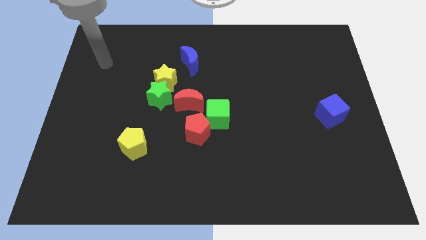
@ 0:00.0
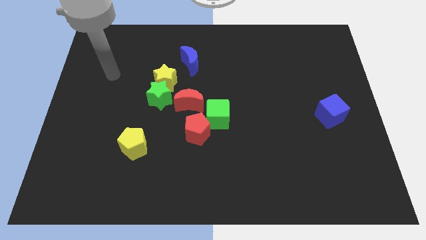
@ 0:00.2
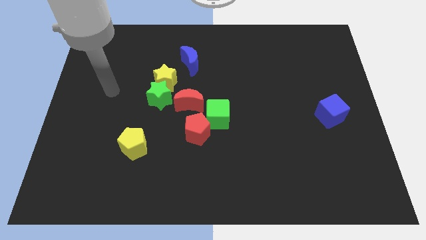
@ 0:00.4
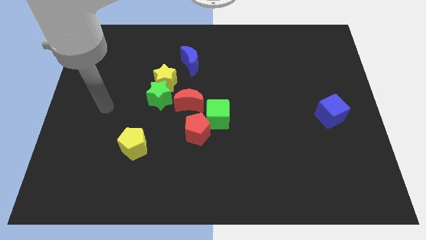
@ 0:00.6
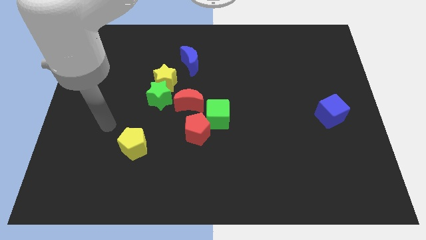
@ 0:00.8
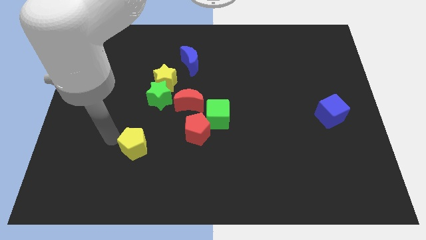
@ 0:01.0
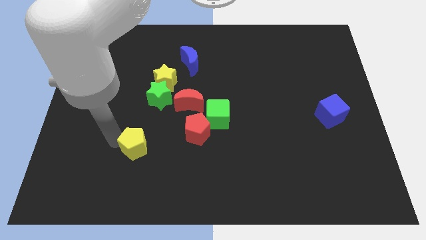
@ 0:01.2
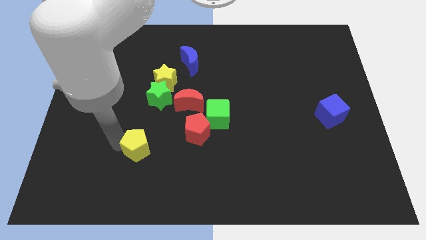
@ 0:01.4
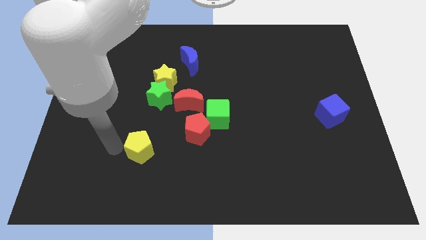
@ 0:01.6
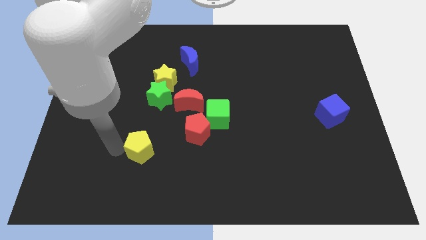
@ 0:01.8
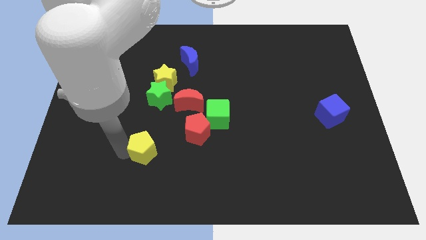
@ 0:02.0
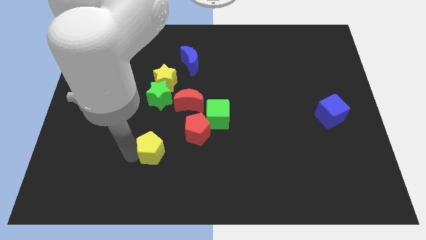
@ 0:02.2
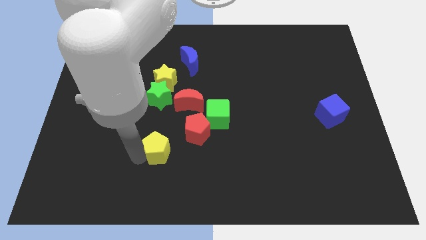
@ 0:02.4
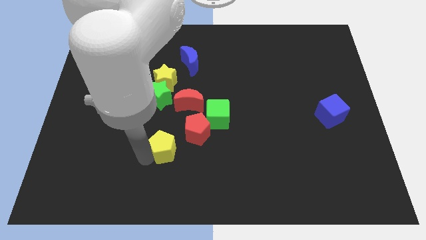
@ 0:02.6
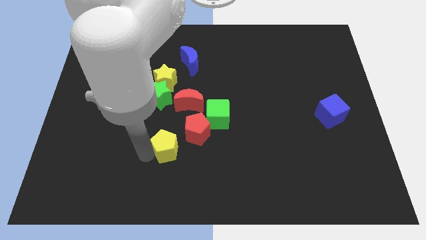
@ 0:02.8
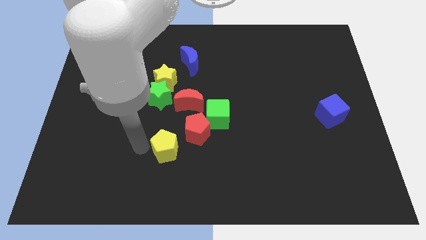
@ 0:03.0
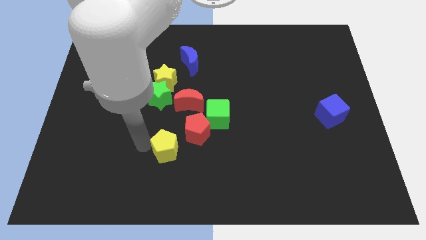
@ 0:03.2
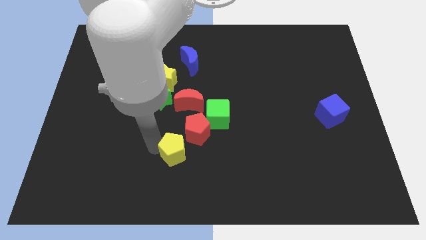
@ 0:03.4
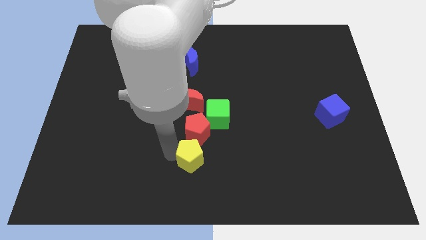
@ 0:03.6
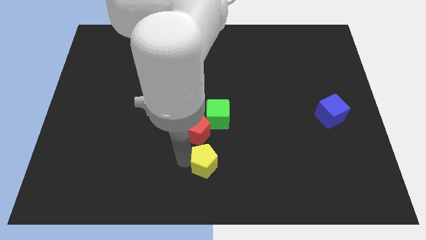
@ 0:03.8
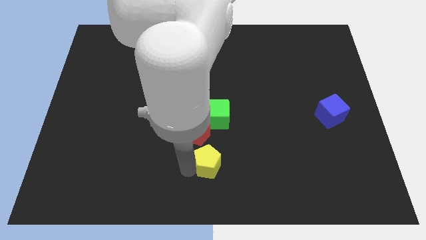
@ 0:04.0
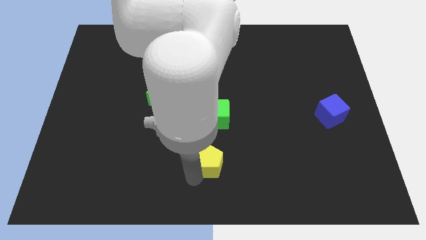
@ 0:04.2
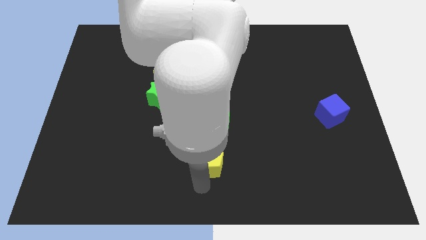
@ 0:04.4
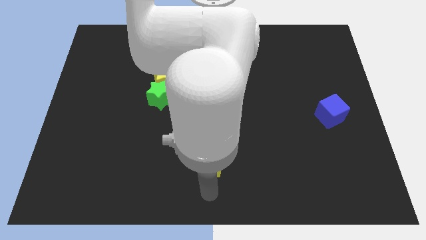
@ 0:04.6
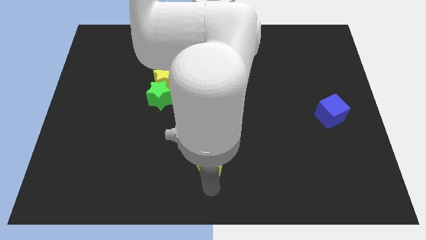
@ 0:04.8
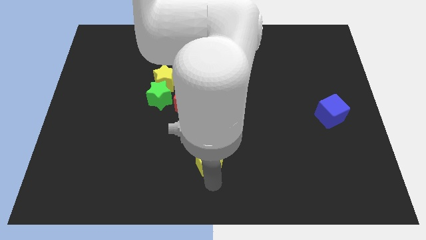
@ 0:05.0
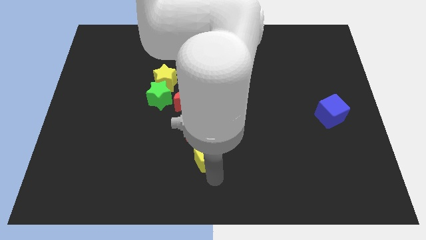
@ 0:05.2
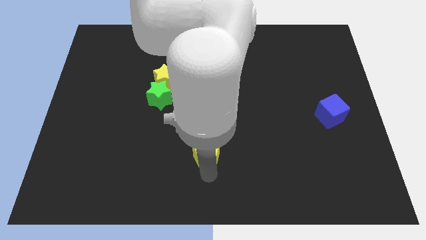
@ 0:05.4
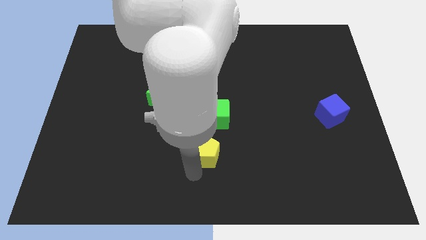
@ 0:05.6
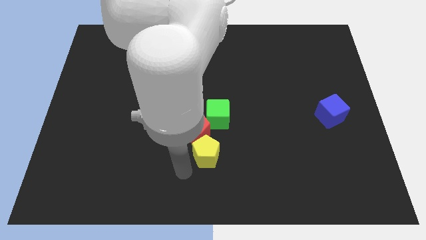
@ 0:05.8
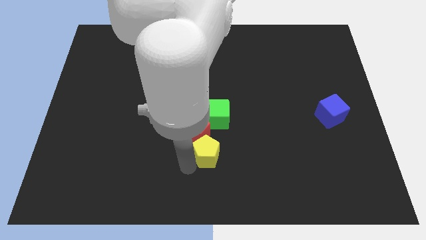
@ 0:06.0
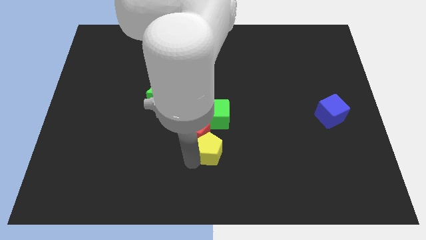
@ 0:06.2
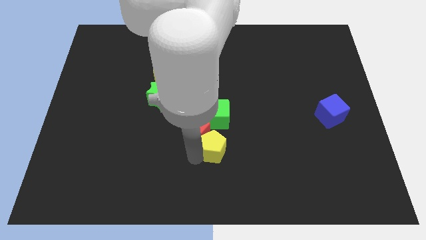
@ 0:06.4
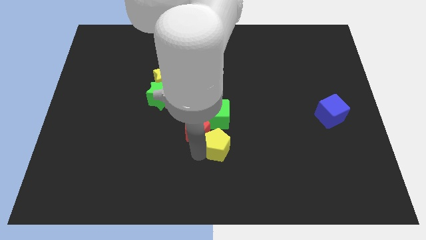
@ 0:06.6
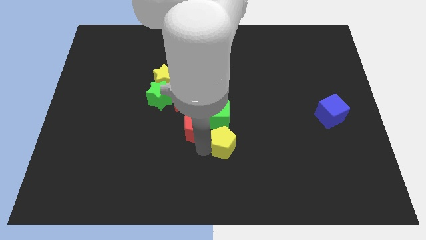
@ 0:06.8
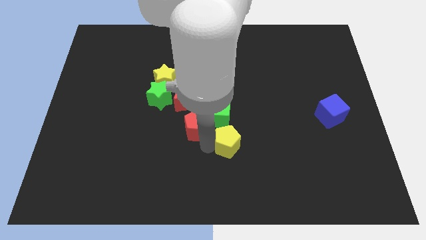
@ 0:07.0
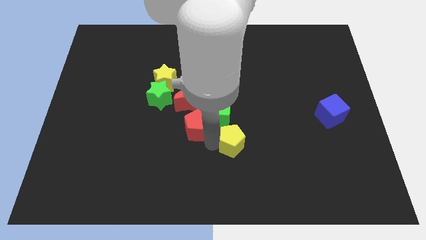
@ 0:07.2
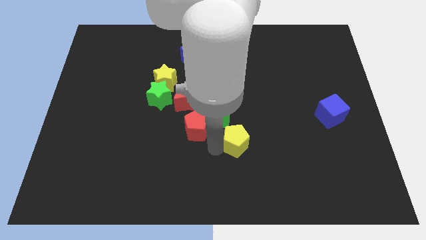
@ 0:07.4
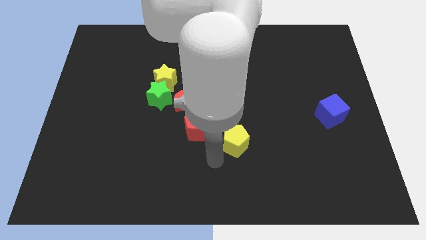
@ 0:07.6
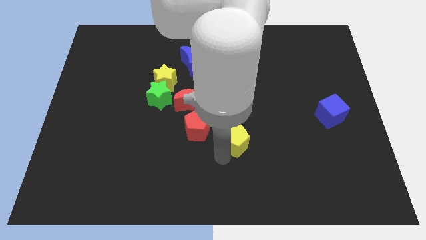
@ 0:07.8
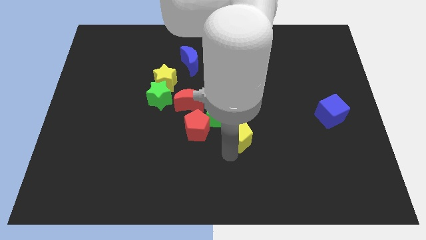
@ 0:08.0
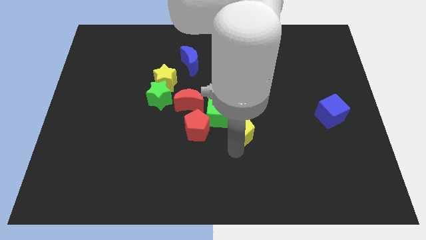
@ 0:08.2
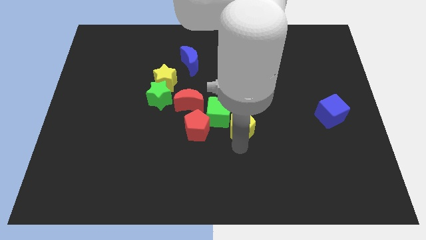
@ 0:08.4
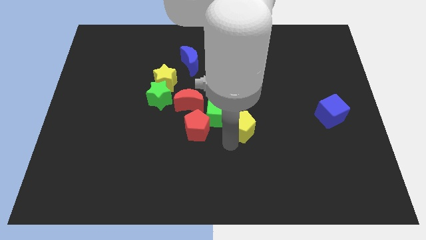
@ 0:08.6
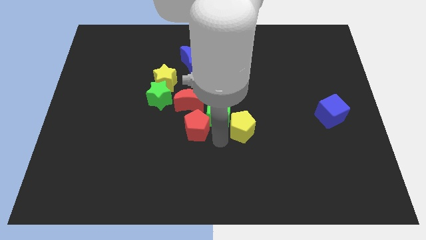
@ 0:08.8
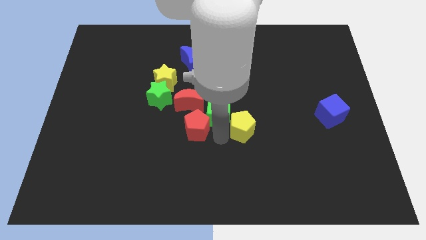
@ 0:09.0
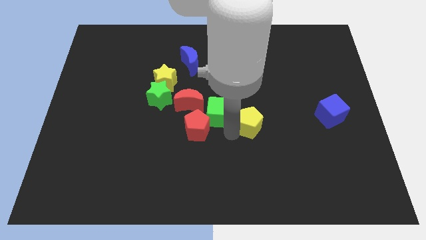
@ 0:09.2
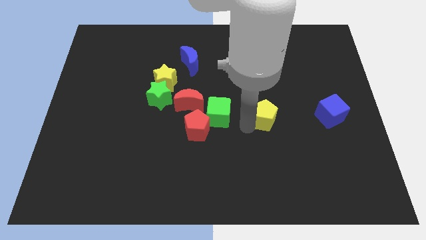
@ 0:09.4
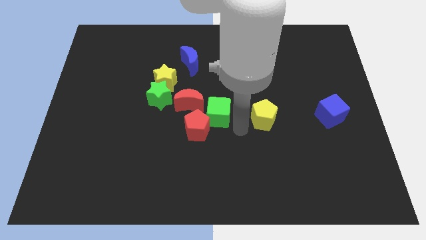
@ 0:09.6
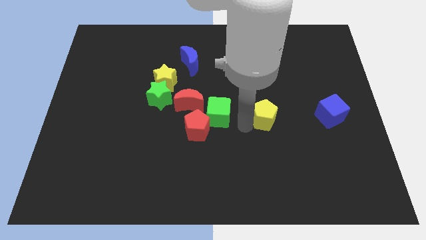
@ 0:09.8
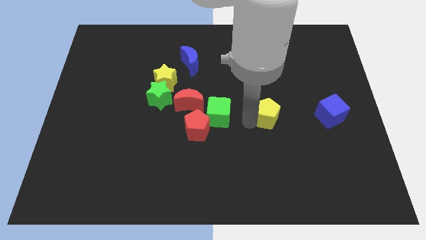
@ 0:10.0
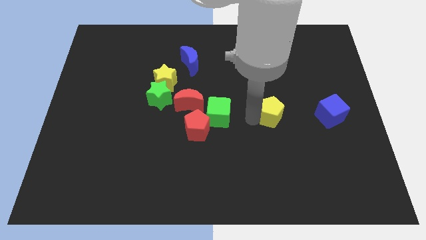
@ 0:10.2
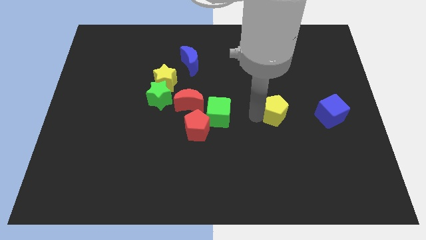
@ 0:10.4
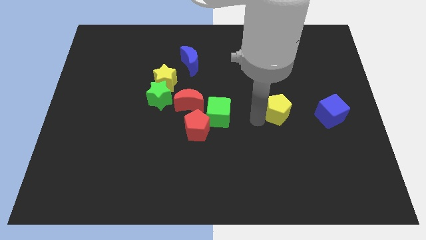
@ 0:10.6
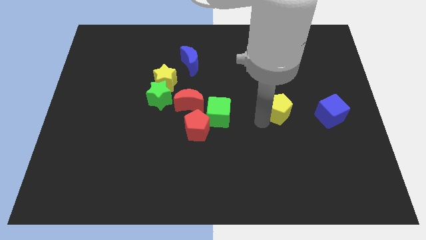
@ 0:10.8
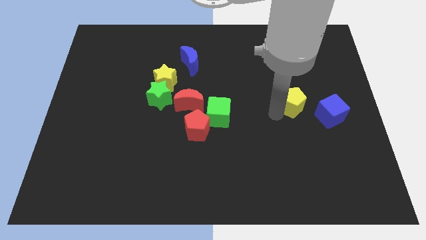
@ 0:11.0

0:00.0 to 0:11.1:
push the yellow pentagon to the top left of the blue cube

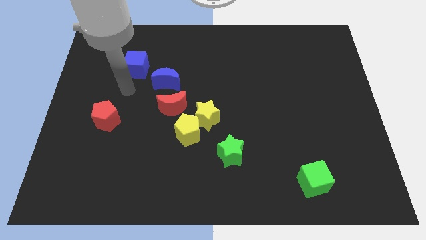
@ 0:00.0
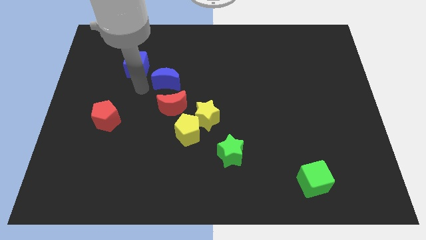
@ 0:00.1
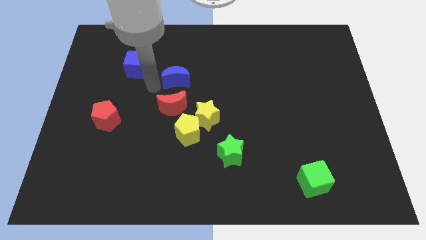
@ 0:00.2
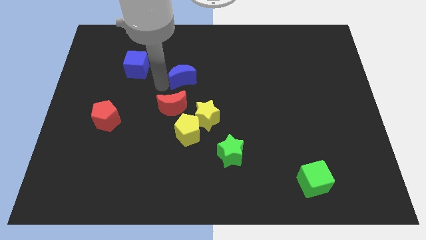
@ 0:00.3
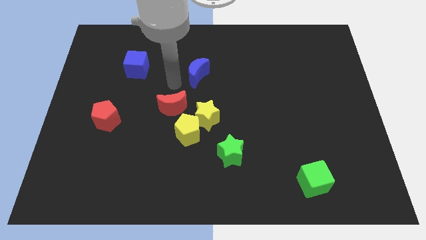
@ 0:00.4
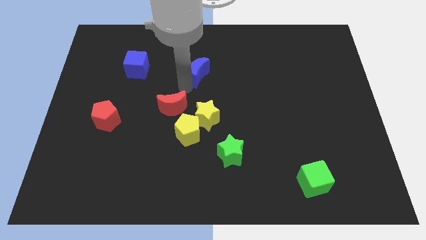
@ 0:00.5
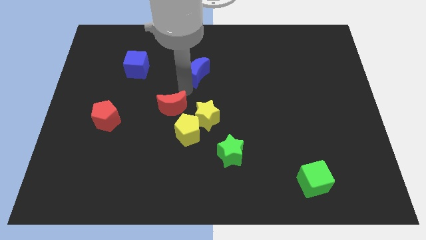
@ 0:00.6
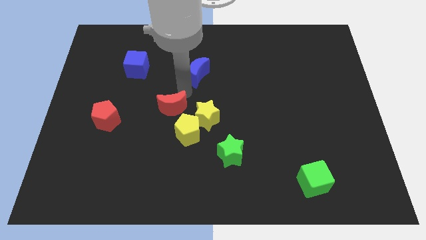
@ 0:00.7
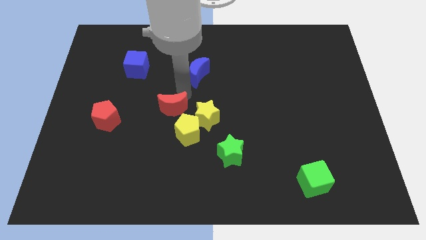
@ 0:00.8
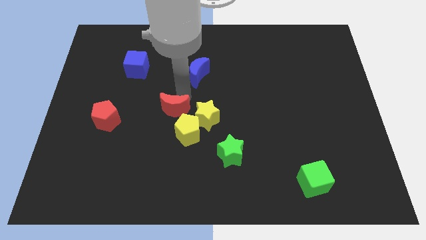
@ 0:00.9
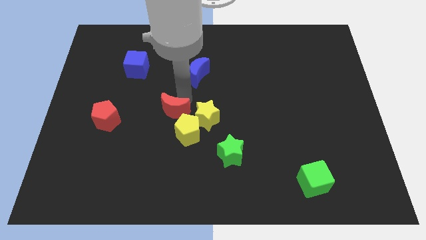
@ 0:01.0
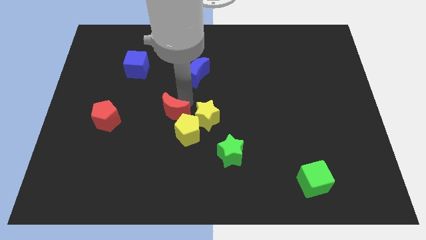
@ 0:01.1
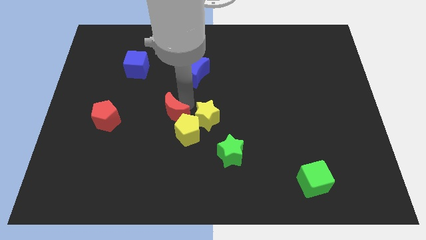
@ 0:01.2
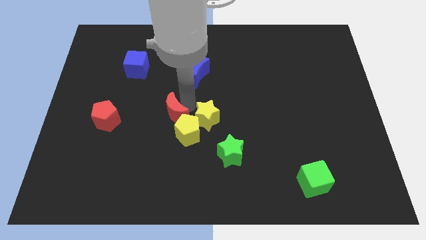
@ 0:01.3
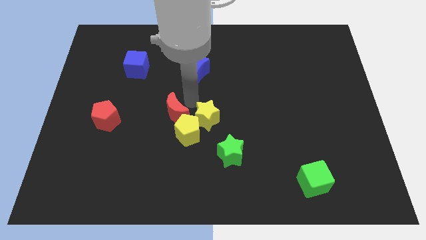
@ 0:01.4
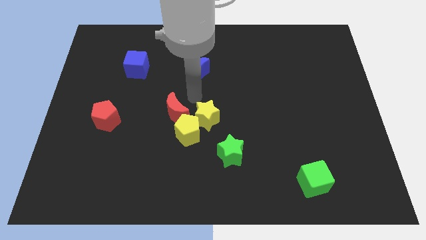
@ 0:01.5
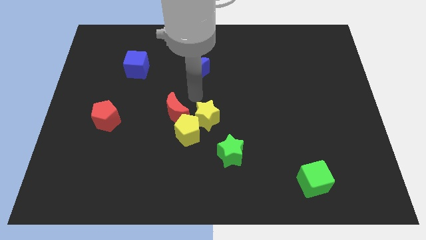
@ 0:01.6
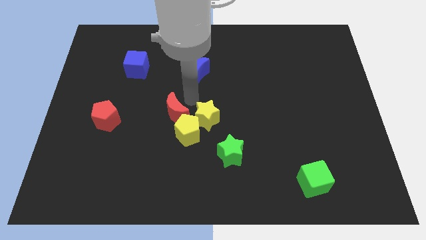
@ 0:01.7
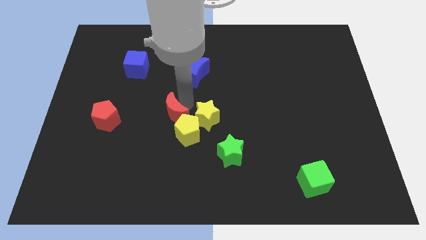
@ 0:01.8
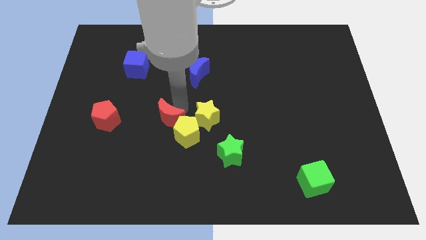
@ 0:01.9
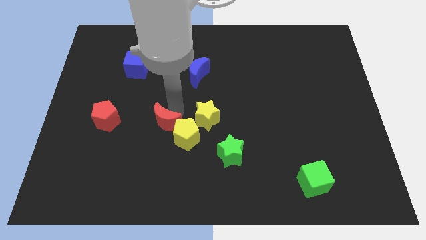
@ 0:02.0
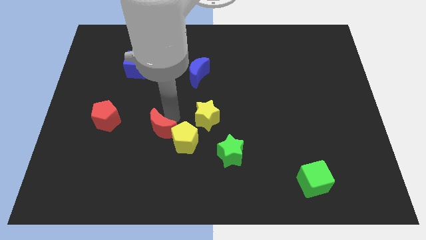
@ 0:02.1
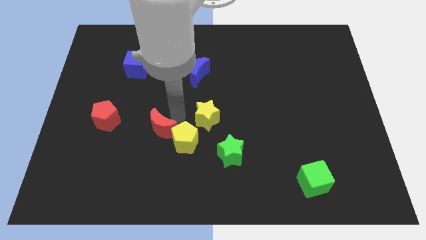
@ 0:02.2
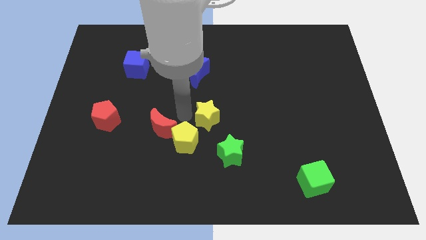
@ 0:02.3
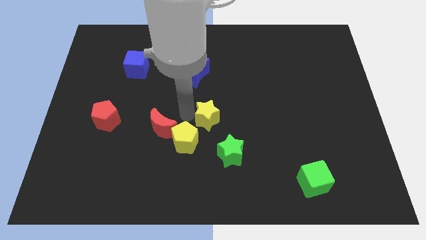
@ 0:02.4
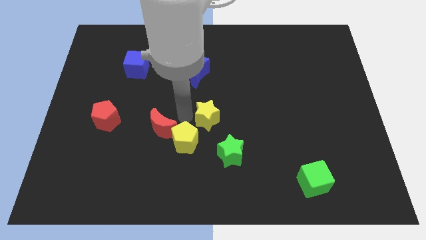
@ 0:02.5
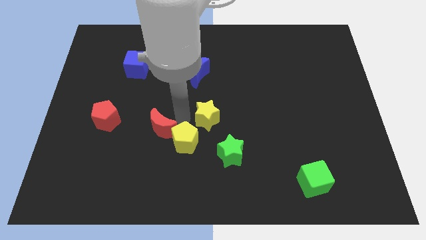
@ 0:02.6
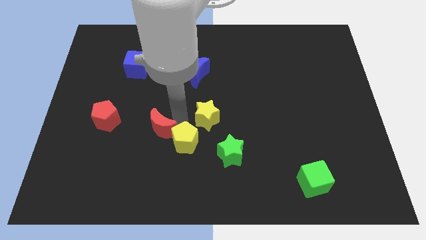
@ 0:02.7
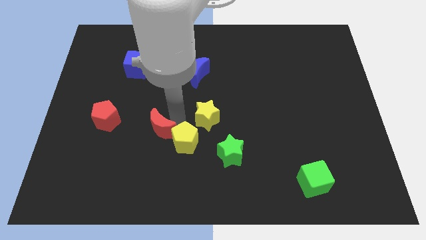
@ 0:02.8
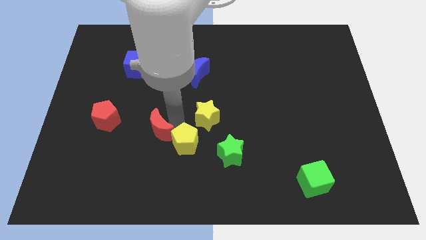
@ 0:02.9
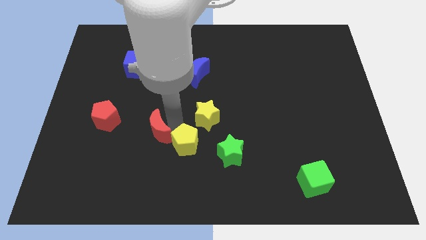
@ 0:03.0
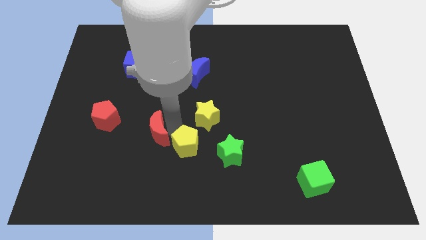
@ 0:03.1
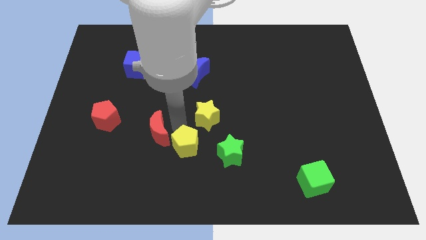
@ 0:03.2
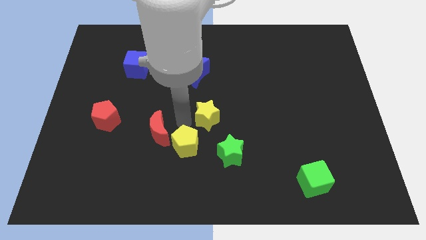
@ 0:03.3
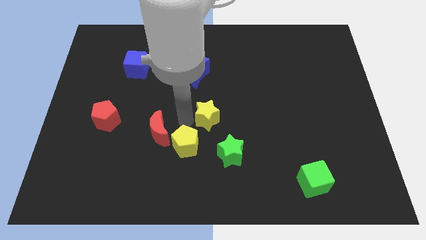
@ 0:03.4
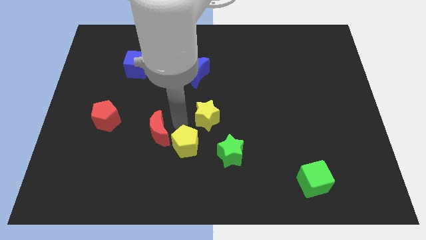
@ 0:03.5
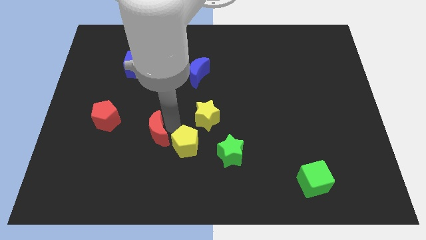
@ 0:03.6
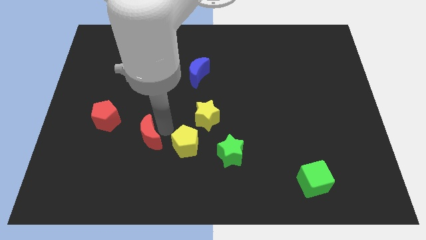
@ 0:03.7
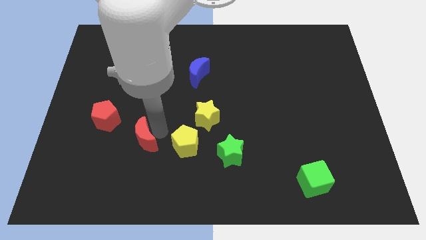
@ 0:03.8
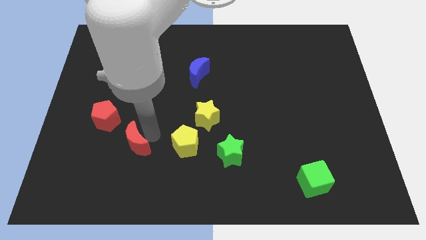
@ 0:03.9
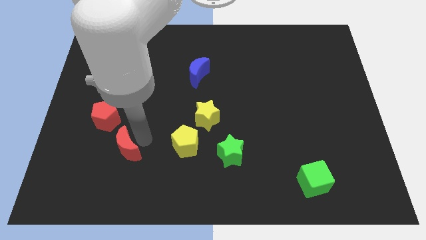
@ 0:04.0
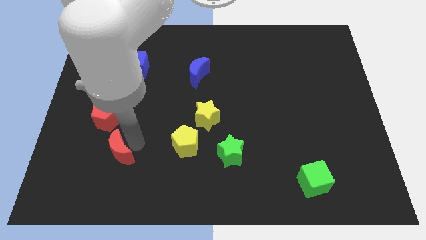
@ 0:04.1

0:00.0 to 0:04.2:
put the red moon to the bottom of the red pentagon
